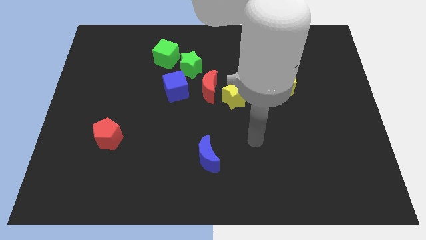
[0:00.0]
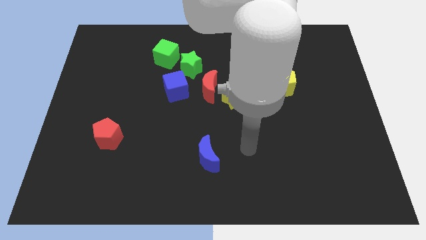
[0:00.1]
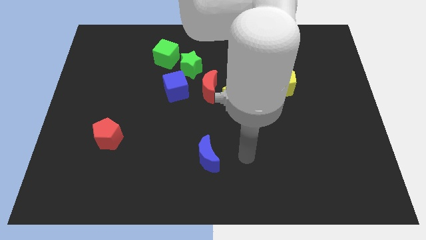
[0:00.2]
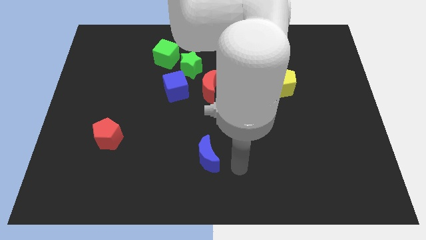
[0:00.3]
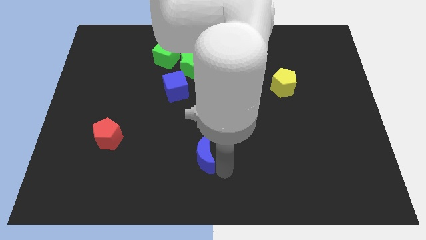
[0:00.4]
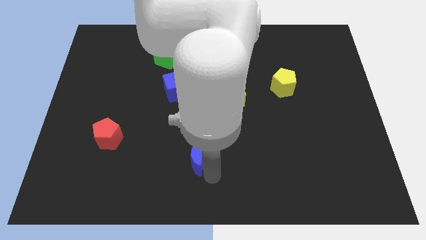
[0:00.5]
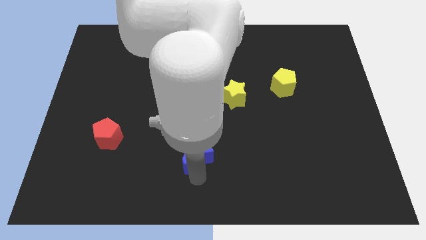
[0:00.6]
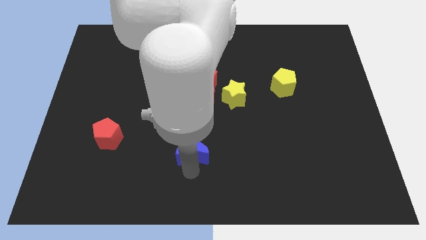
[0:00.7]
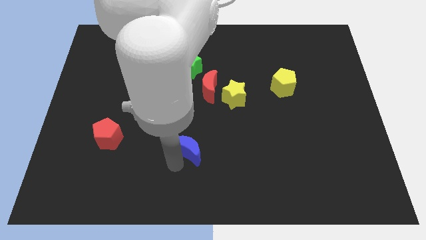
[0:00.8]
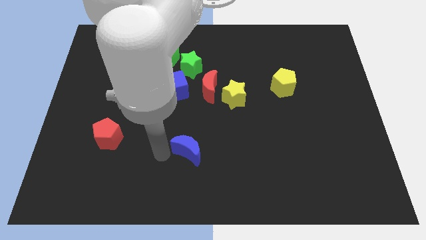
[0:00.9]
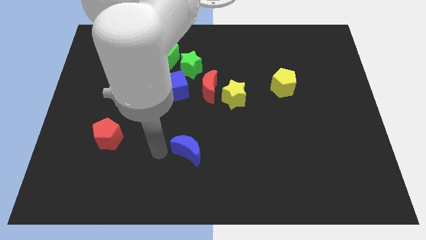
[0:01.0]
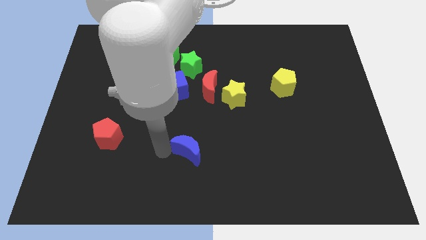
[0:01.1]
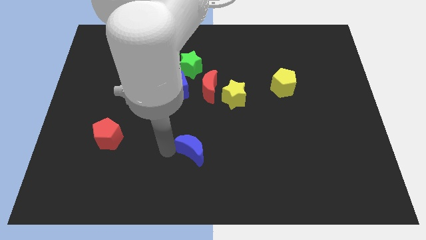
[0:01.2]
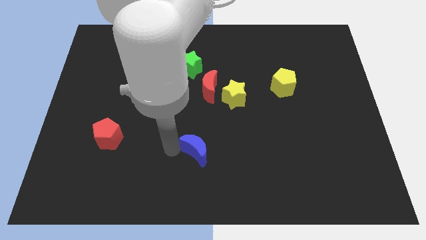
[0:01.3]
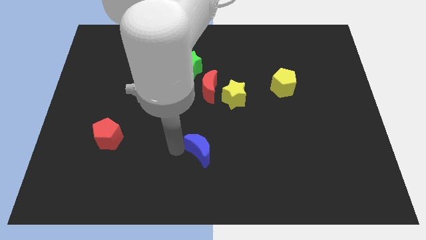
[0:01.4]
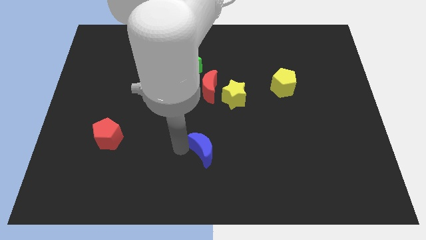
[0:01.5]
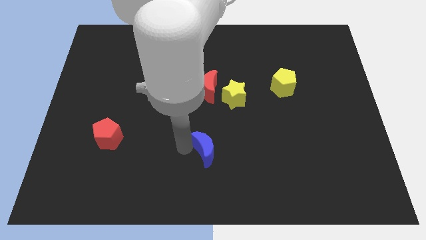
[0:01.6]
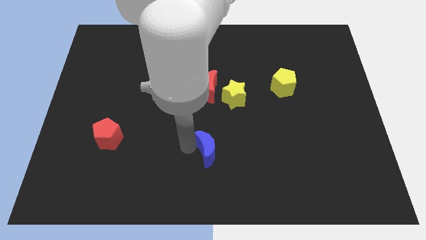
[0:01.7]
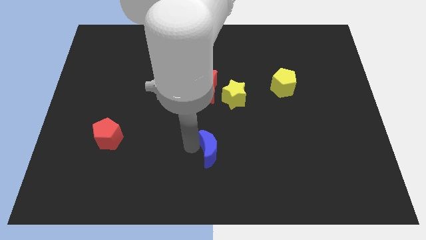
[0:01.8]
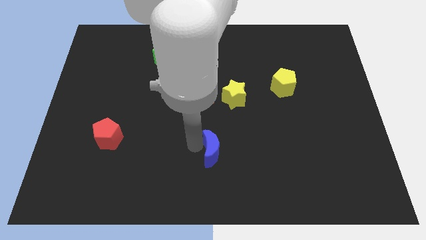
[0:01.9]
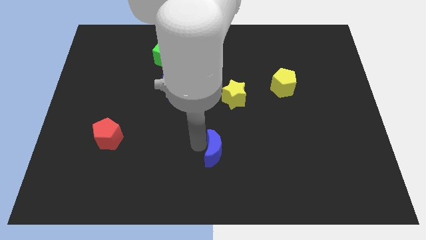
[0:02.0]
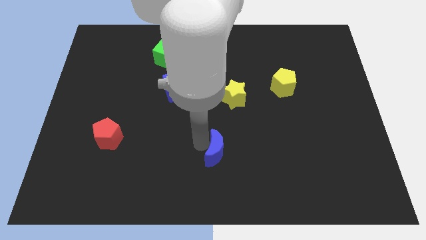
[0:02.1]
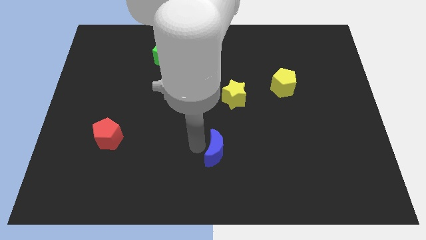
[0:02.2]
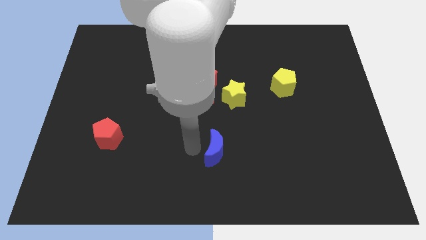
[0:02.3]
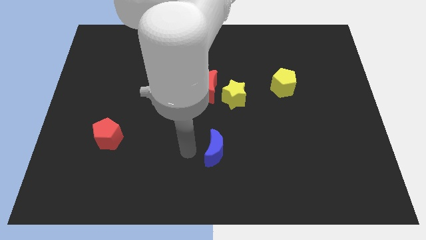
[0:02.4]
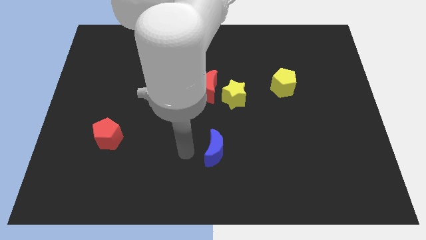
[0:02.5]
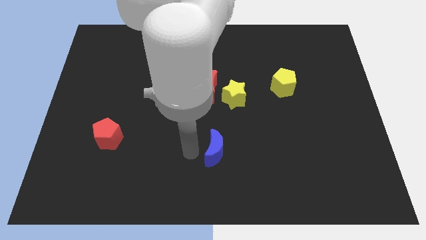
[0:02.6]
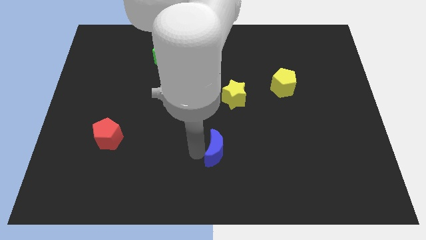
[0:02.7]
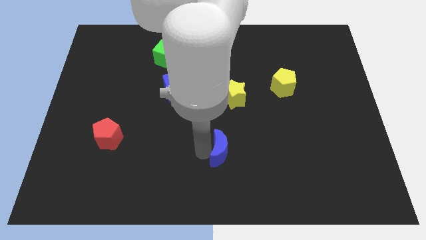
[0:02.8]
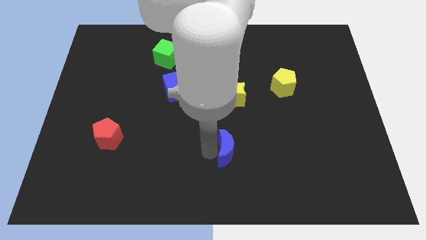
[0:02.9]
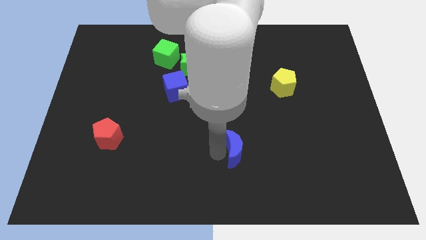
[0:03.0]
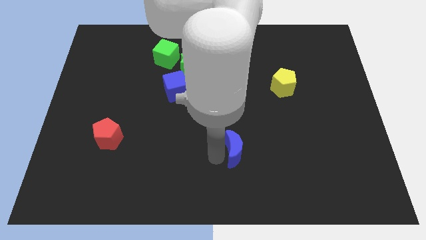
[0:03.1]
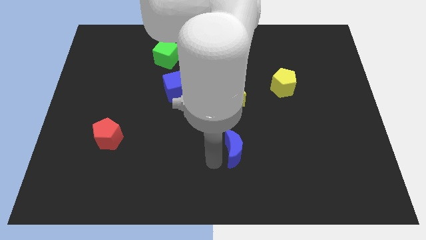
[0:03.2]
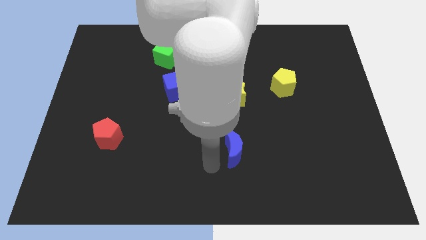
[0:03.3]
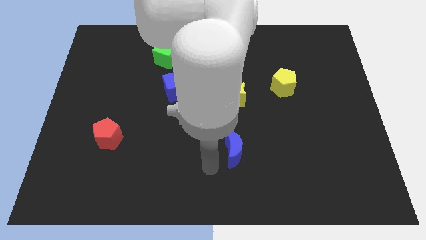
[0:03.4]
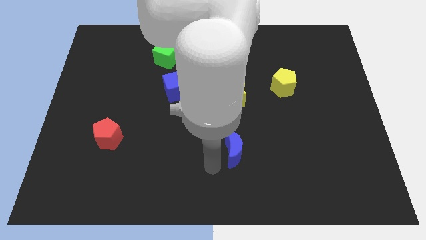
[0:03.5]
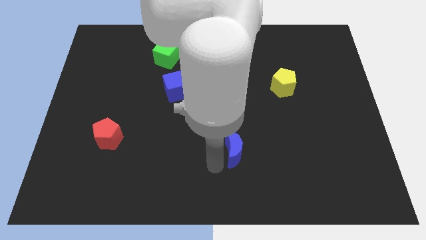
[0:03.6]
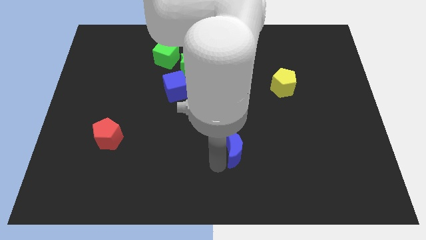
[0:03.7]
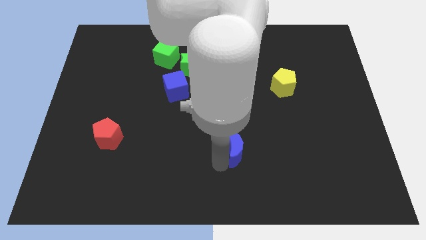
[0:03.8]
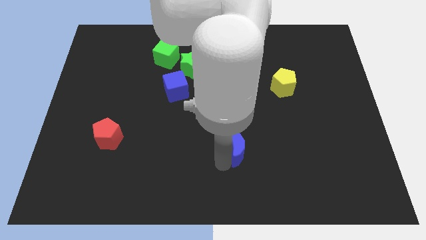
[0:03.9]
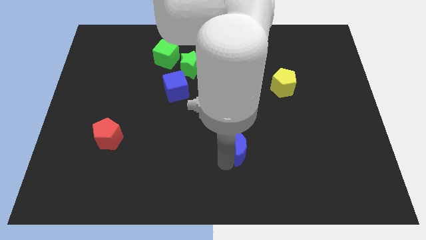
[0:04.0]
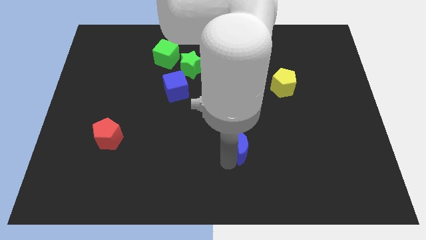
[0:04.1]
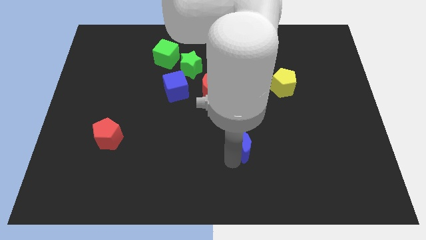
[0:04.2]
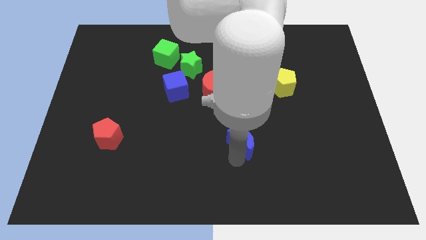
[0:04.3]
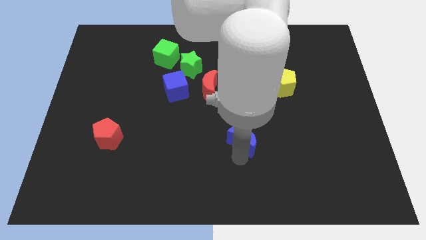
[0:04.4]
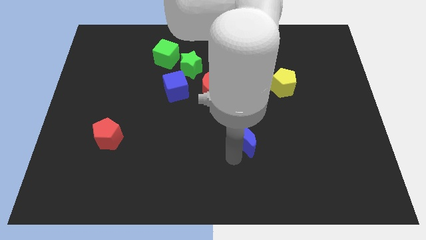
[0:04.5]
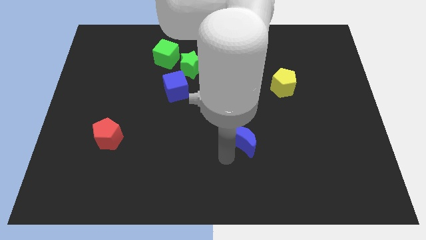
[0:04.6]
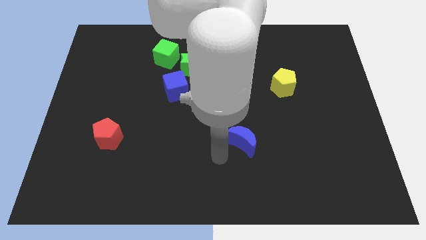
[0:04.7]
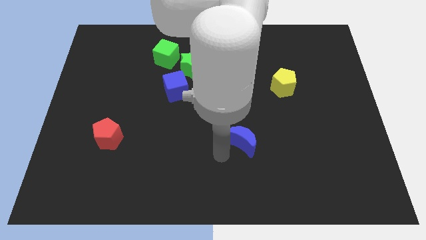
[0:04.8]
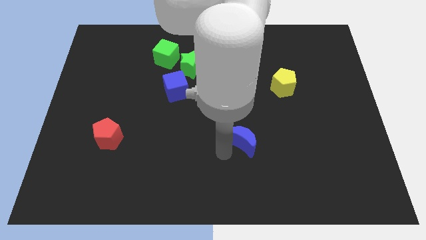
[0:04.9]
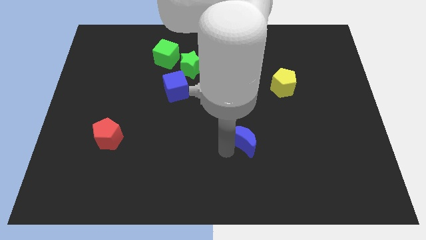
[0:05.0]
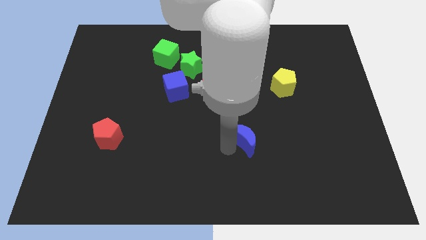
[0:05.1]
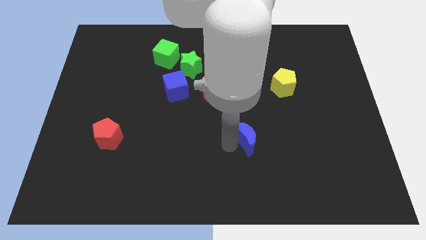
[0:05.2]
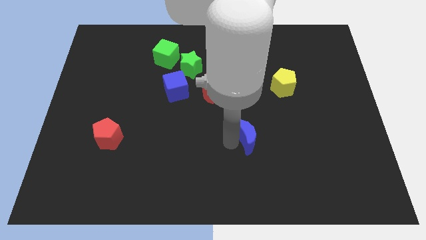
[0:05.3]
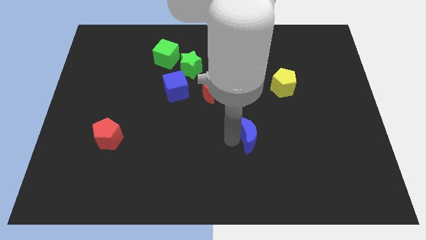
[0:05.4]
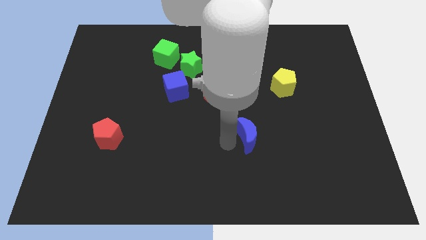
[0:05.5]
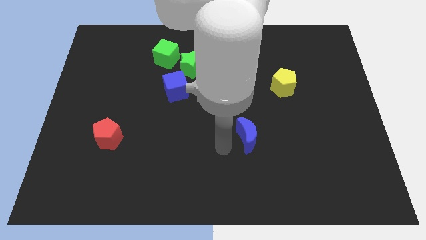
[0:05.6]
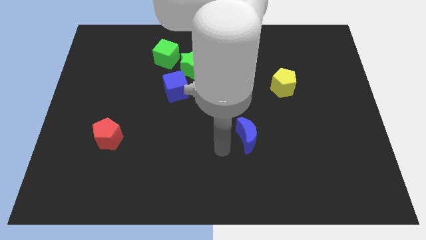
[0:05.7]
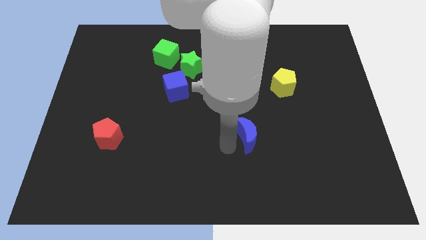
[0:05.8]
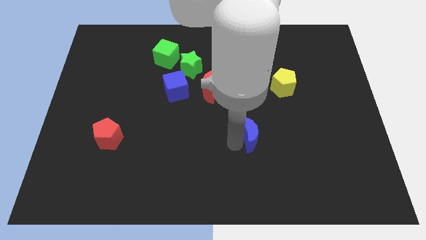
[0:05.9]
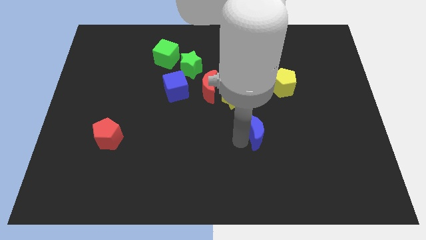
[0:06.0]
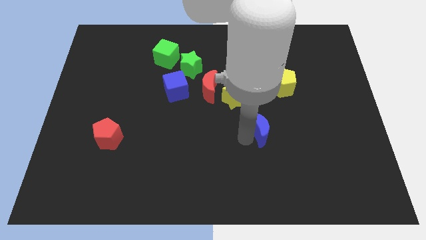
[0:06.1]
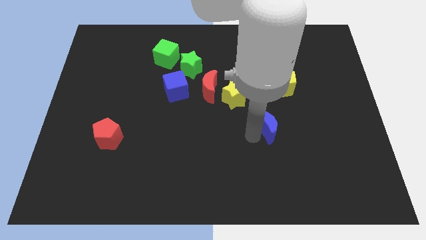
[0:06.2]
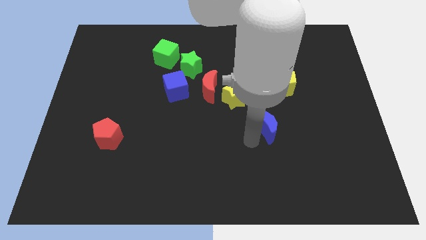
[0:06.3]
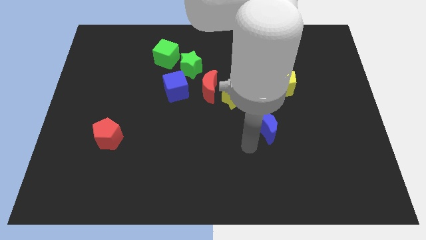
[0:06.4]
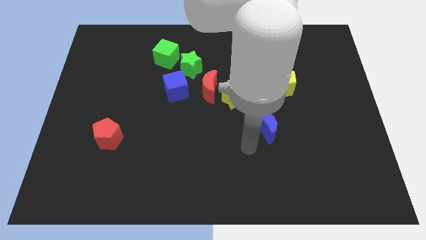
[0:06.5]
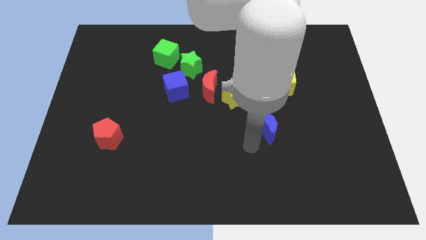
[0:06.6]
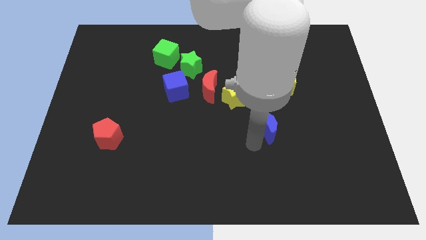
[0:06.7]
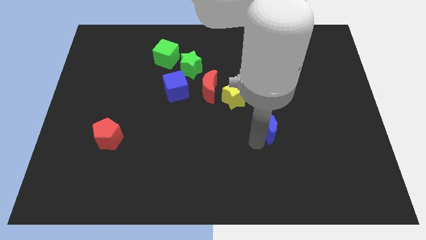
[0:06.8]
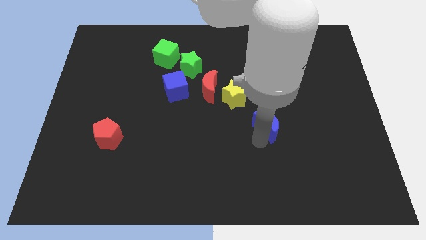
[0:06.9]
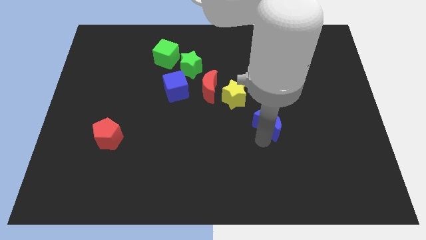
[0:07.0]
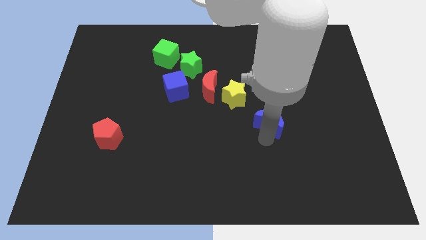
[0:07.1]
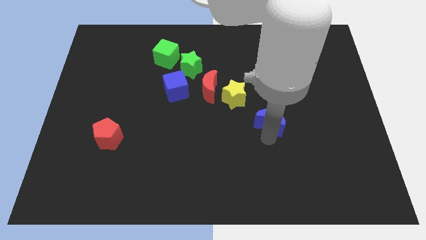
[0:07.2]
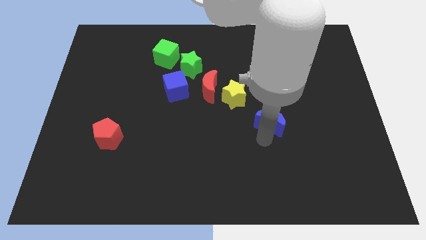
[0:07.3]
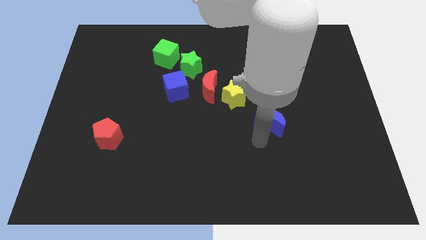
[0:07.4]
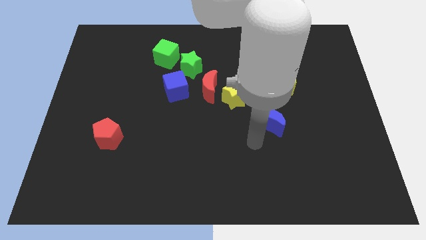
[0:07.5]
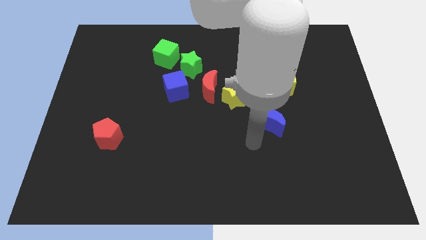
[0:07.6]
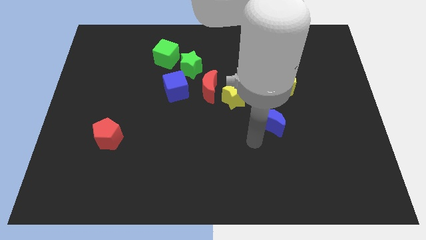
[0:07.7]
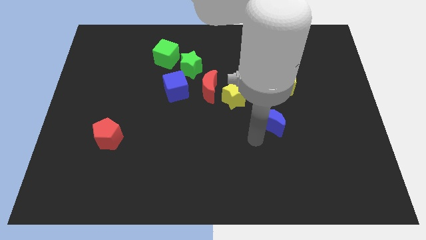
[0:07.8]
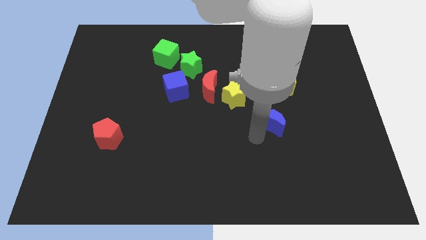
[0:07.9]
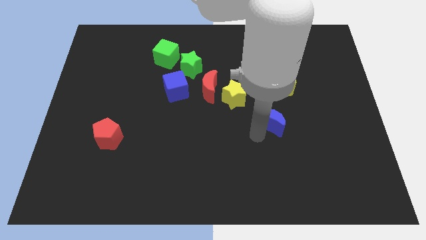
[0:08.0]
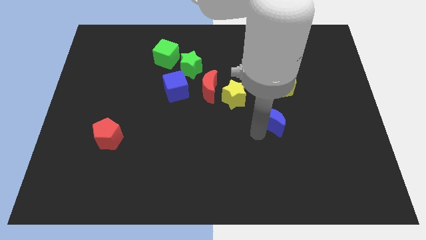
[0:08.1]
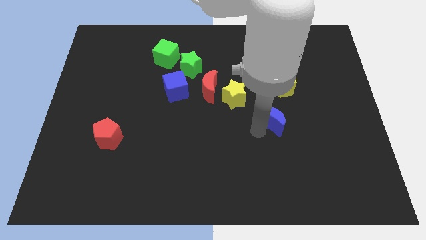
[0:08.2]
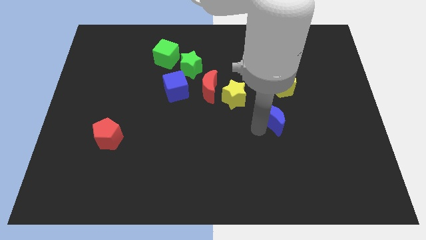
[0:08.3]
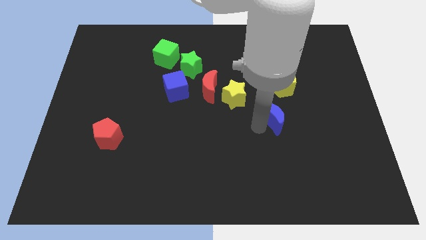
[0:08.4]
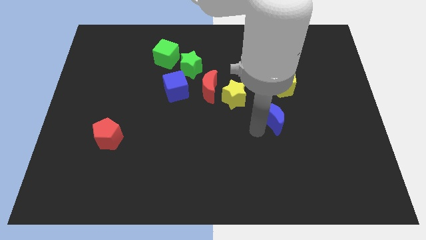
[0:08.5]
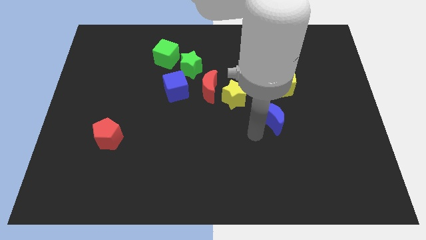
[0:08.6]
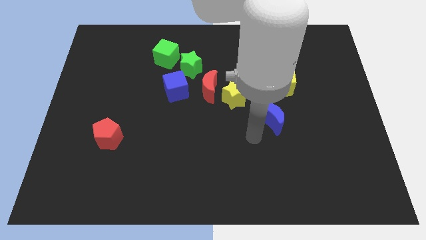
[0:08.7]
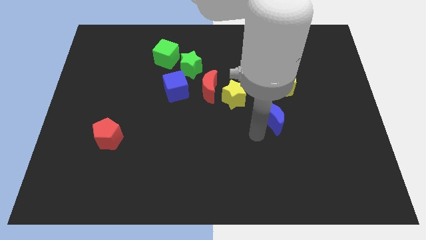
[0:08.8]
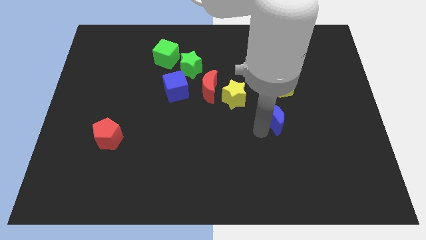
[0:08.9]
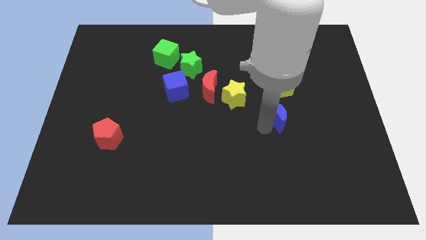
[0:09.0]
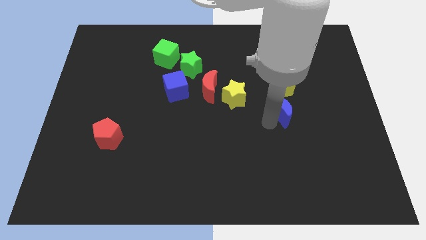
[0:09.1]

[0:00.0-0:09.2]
push the blue moon up and right diagonally
